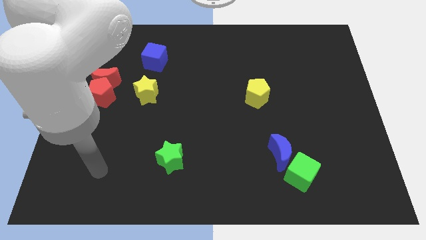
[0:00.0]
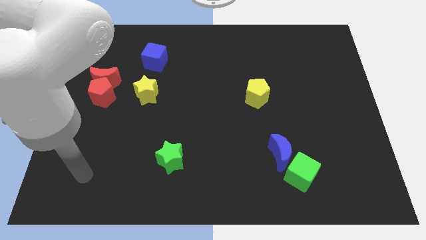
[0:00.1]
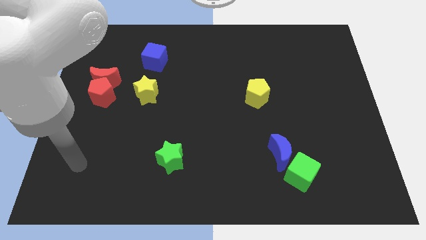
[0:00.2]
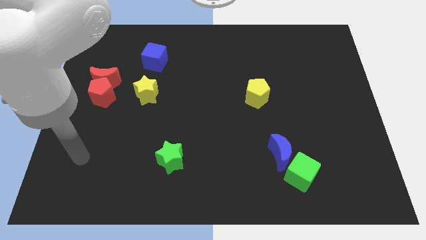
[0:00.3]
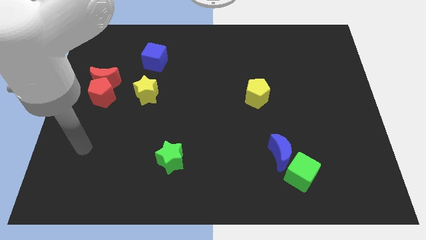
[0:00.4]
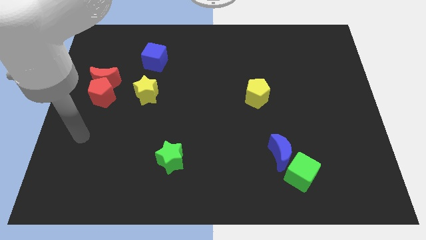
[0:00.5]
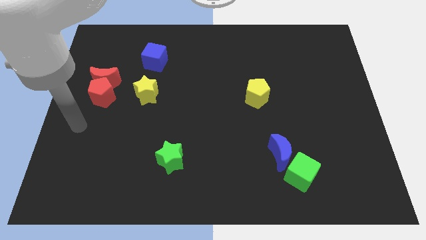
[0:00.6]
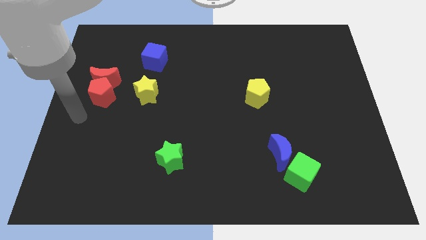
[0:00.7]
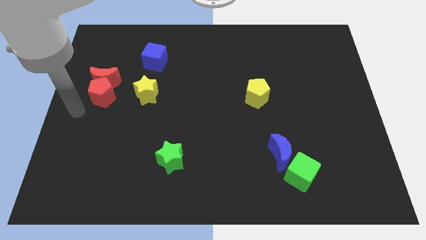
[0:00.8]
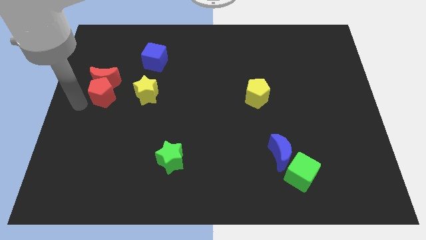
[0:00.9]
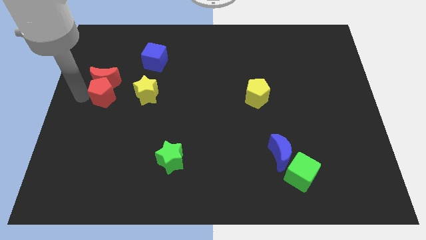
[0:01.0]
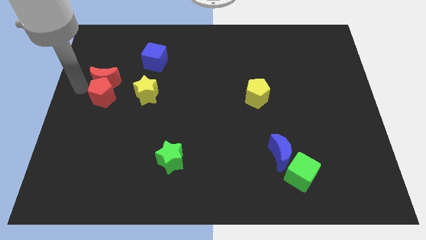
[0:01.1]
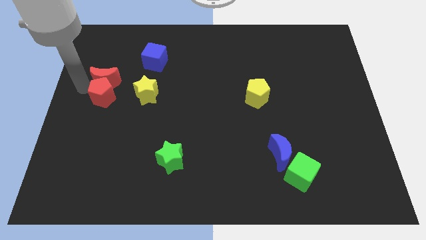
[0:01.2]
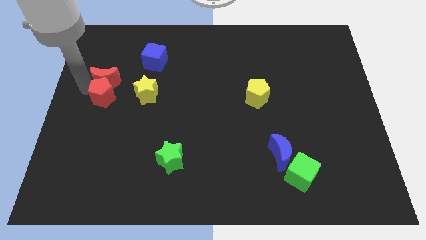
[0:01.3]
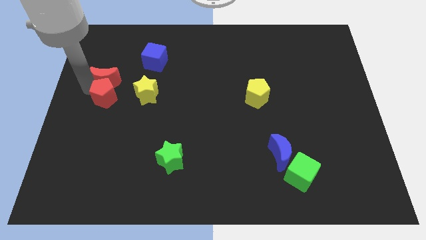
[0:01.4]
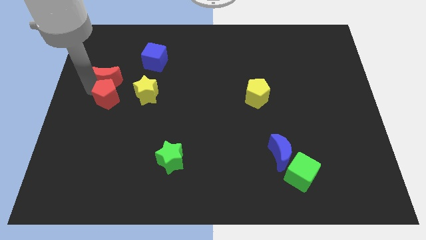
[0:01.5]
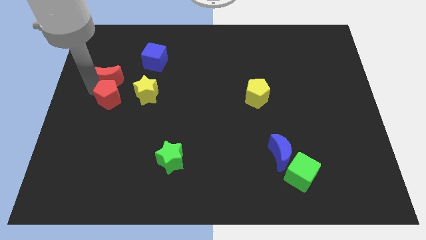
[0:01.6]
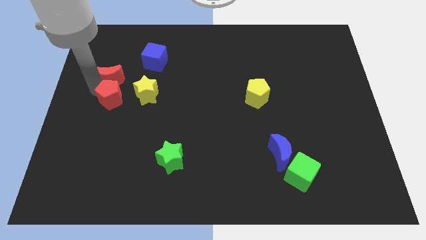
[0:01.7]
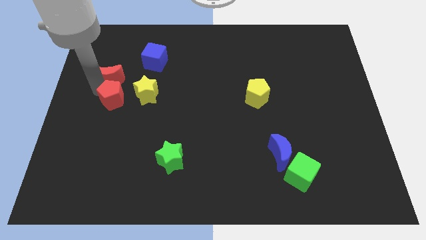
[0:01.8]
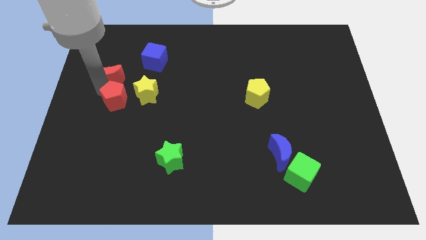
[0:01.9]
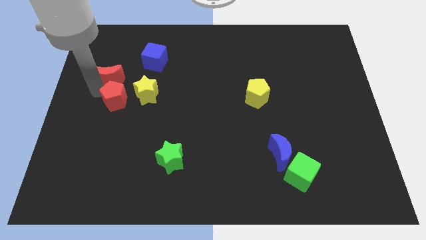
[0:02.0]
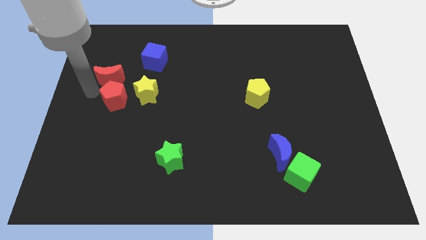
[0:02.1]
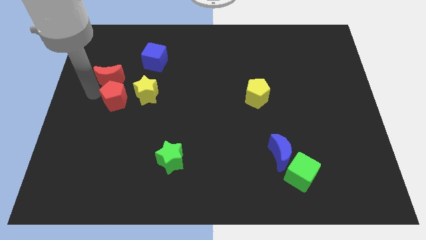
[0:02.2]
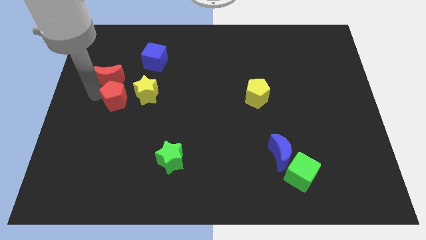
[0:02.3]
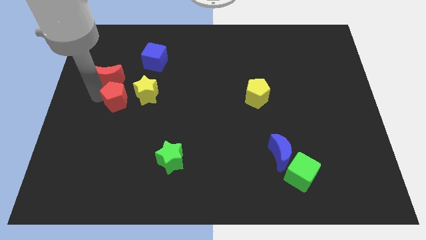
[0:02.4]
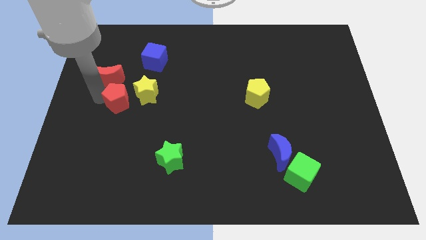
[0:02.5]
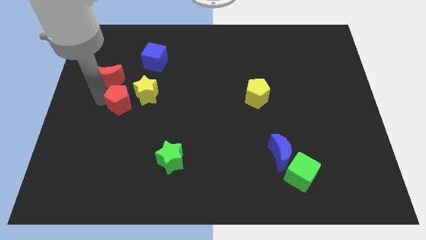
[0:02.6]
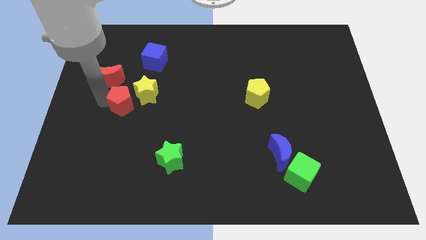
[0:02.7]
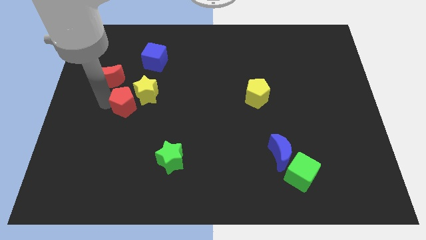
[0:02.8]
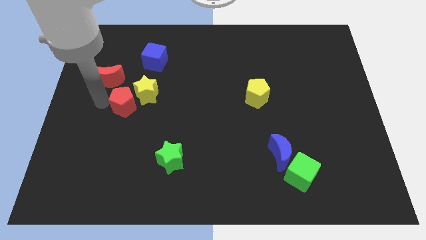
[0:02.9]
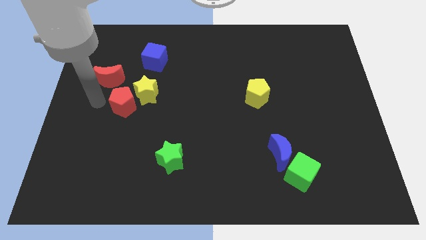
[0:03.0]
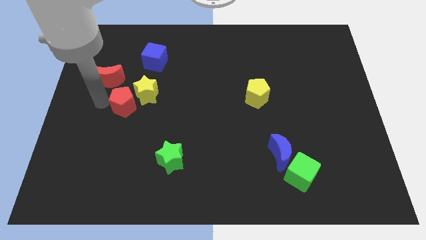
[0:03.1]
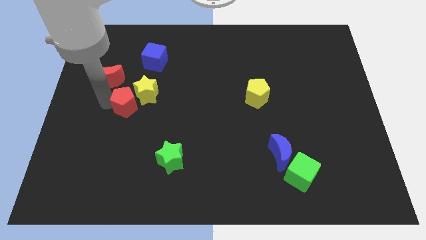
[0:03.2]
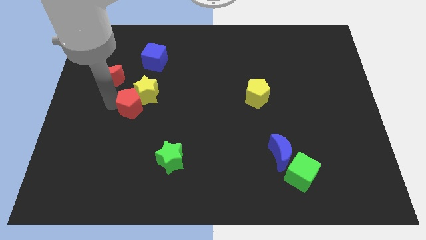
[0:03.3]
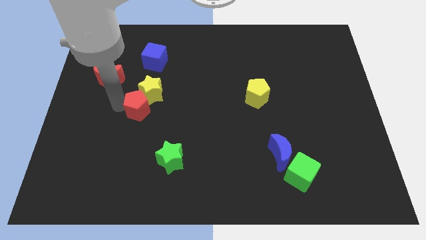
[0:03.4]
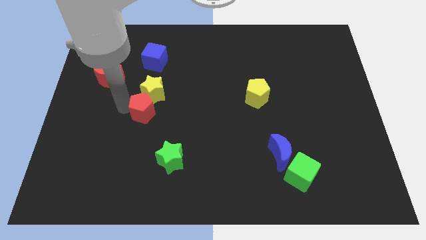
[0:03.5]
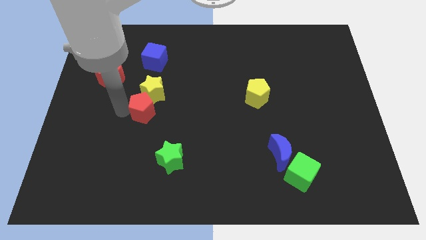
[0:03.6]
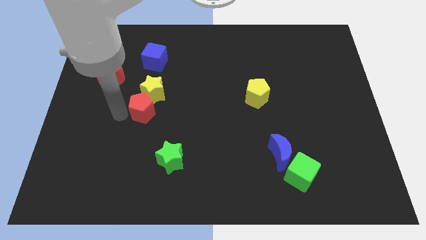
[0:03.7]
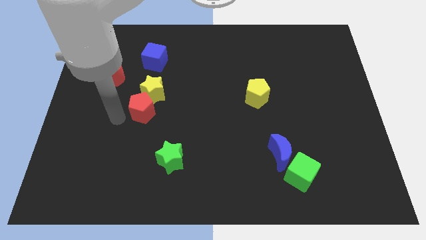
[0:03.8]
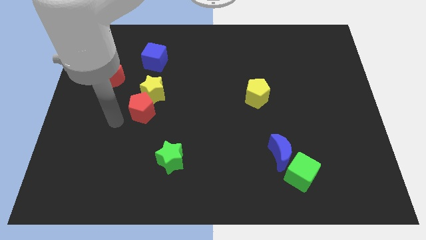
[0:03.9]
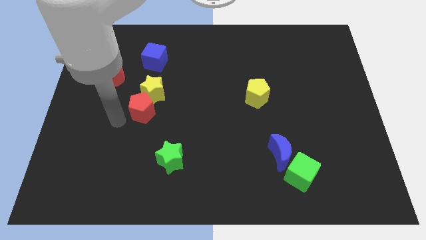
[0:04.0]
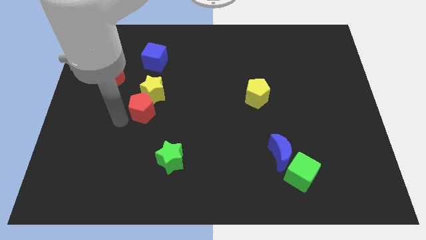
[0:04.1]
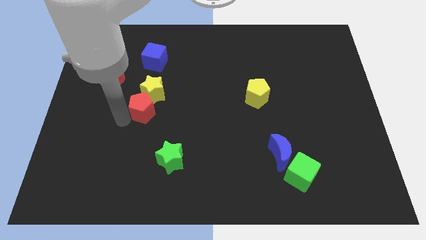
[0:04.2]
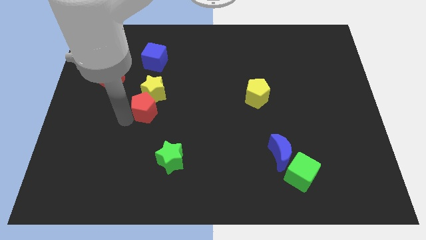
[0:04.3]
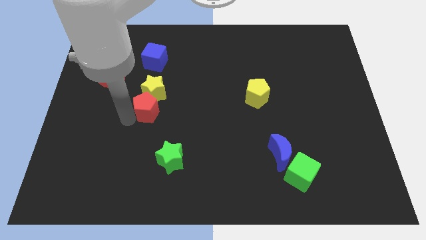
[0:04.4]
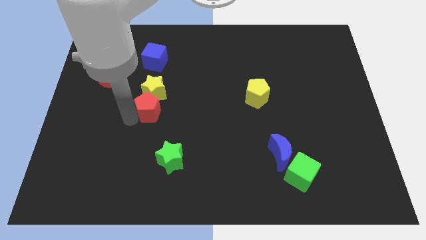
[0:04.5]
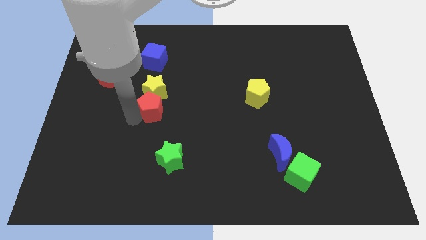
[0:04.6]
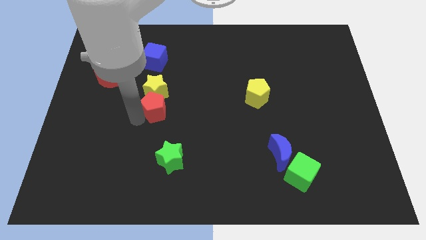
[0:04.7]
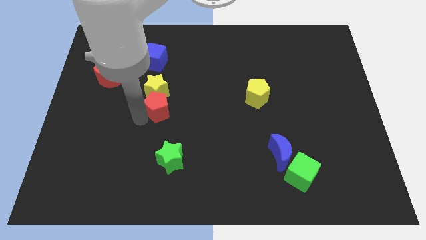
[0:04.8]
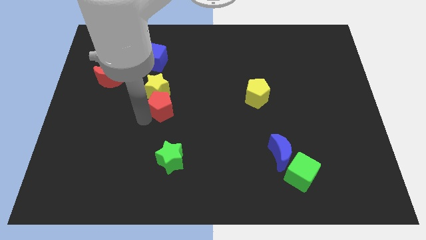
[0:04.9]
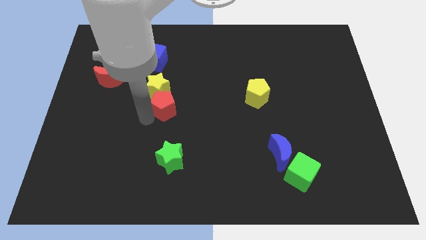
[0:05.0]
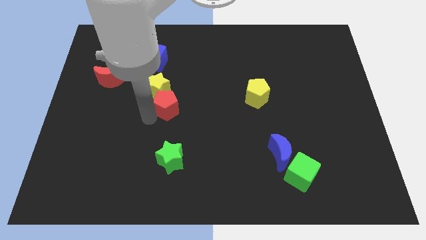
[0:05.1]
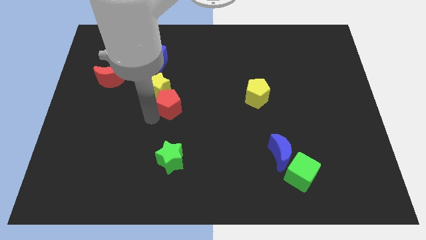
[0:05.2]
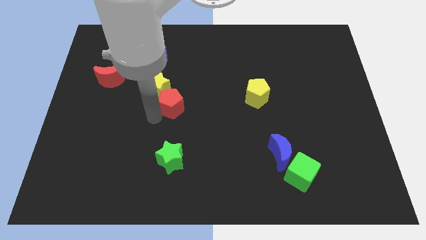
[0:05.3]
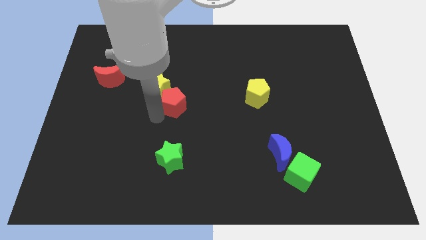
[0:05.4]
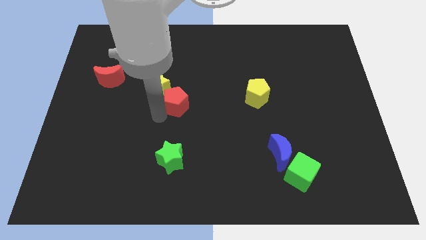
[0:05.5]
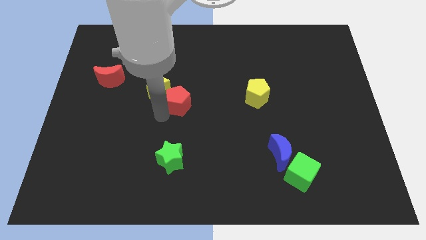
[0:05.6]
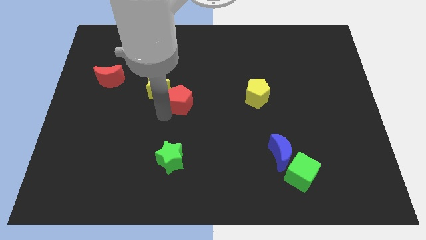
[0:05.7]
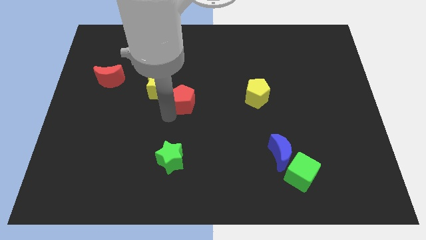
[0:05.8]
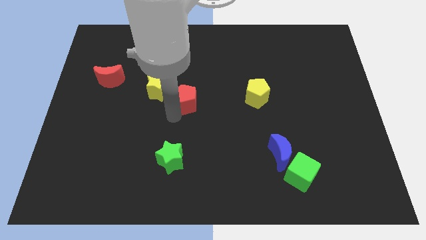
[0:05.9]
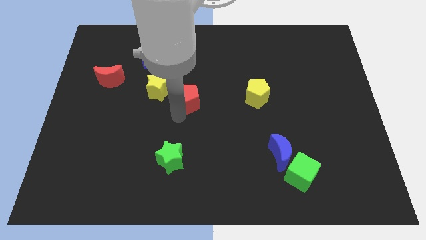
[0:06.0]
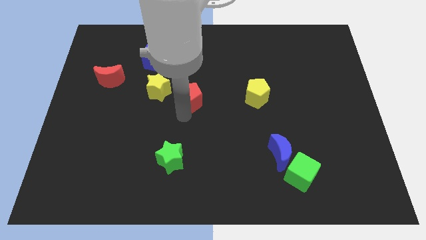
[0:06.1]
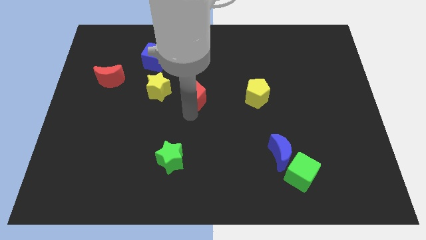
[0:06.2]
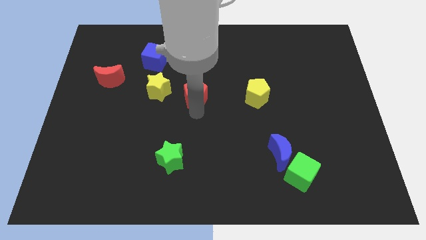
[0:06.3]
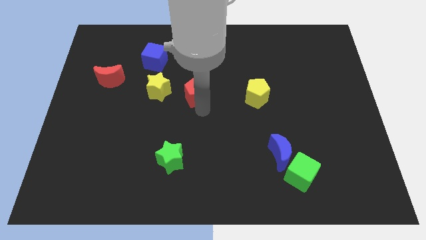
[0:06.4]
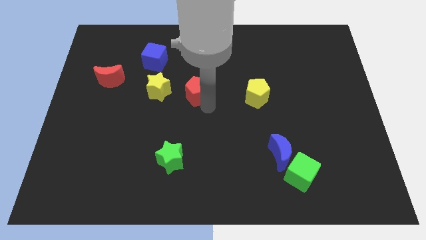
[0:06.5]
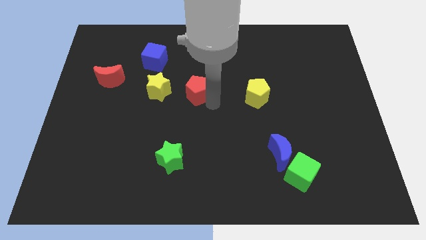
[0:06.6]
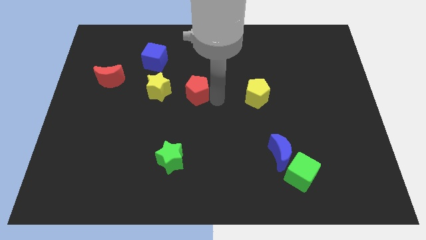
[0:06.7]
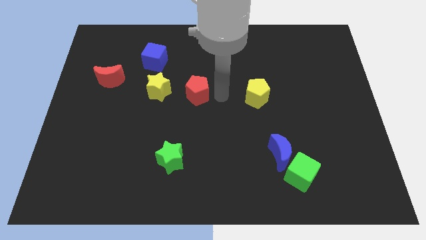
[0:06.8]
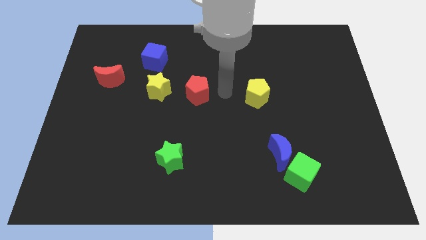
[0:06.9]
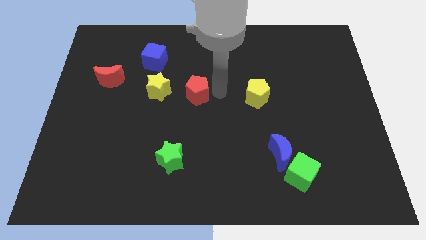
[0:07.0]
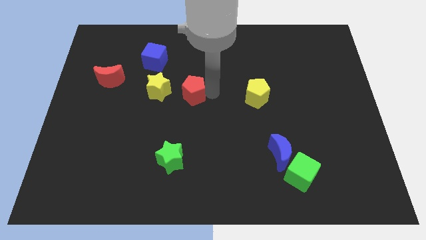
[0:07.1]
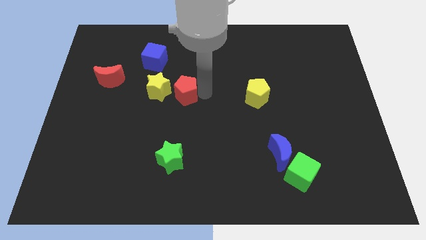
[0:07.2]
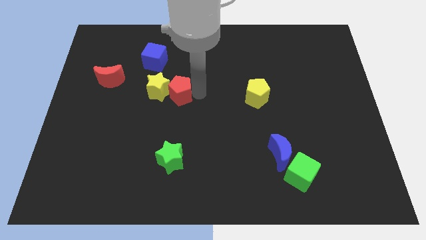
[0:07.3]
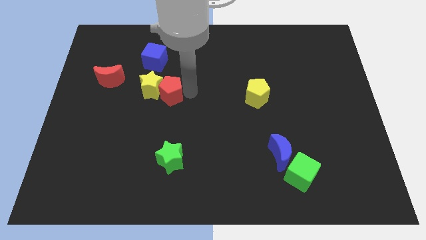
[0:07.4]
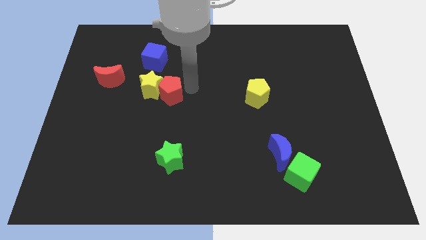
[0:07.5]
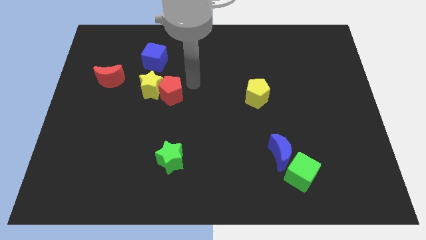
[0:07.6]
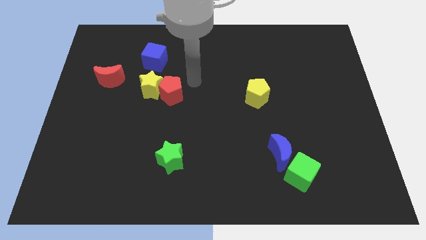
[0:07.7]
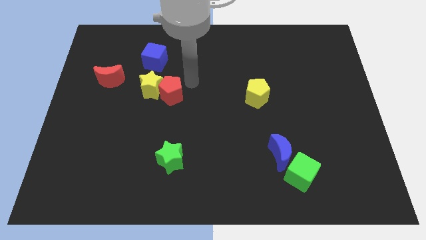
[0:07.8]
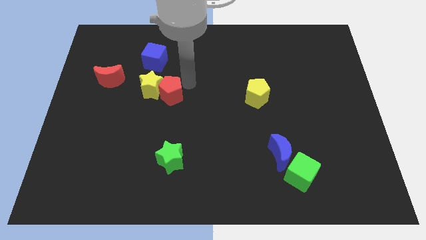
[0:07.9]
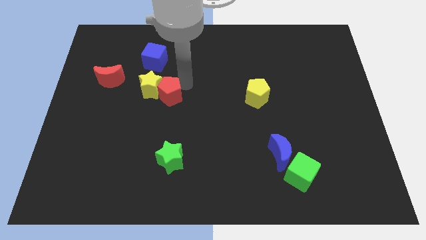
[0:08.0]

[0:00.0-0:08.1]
slide the red pentagon below the blue cube

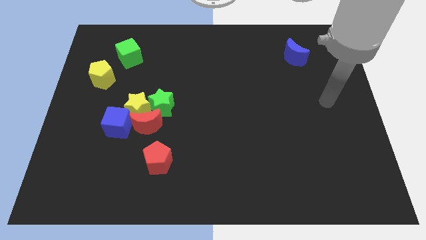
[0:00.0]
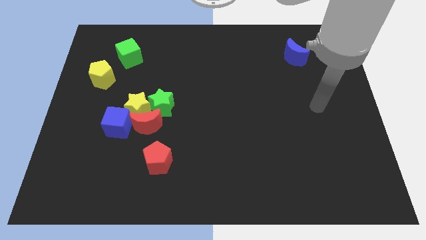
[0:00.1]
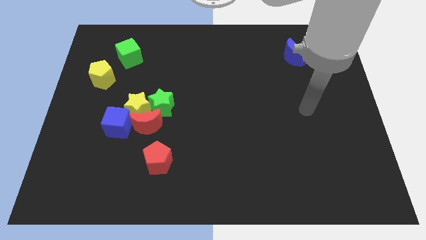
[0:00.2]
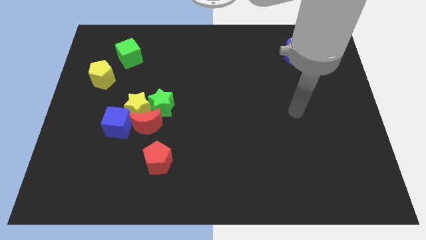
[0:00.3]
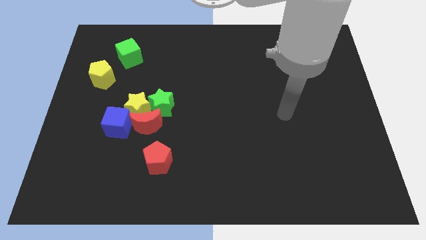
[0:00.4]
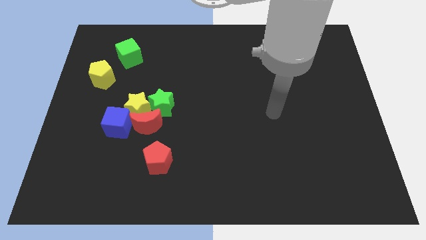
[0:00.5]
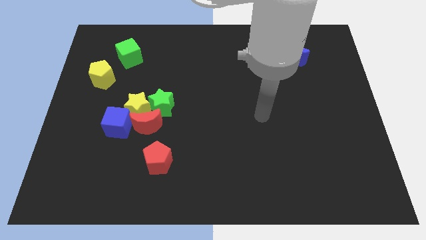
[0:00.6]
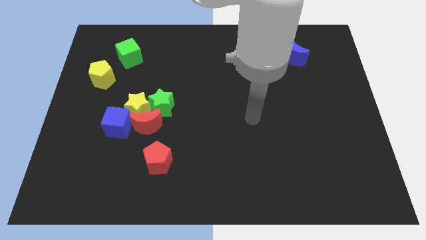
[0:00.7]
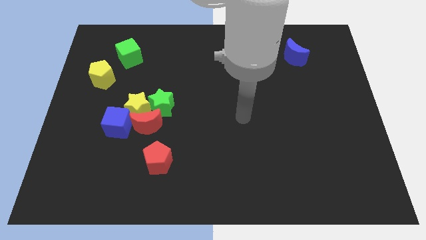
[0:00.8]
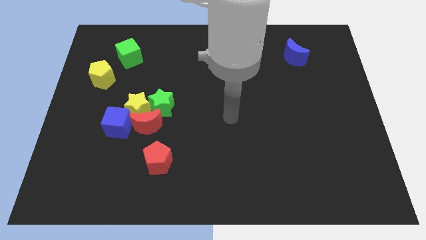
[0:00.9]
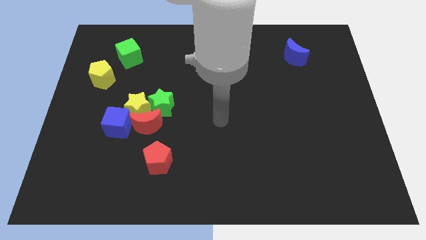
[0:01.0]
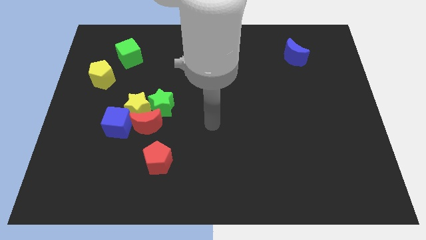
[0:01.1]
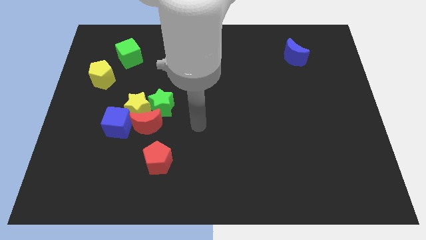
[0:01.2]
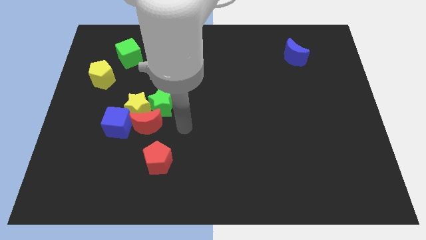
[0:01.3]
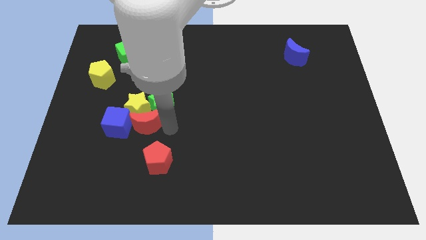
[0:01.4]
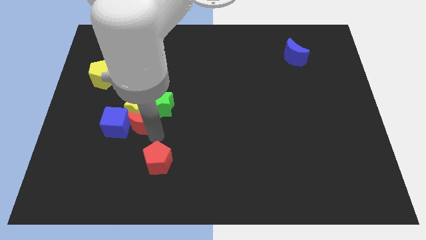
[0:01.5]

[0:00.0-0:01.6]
put the yellow star to the top right side of the red moon
